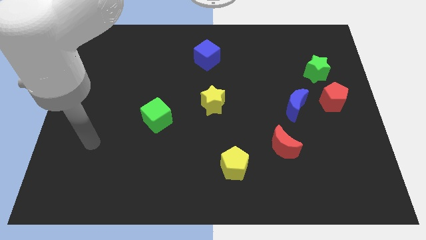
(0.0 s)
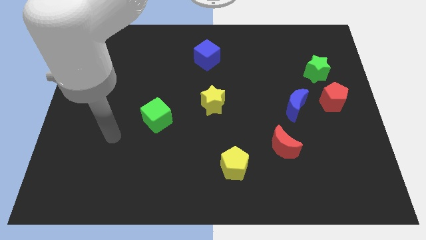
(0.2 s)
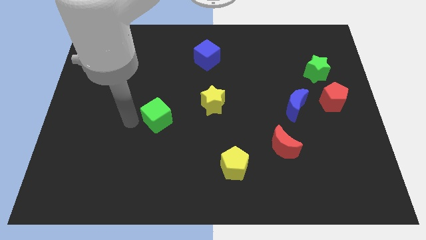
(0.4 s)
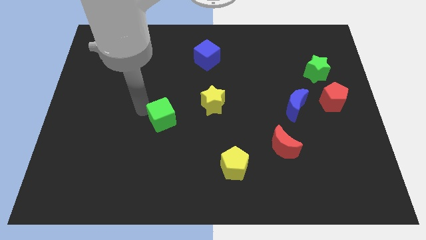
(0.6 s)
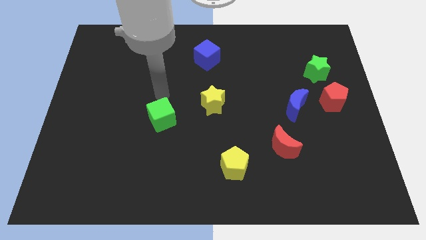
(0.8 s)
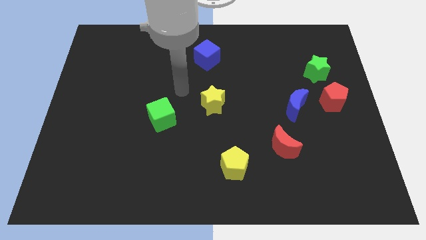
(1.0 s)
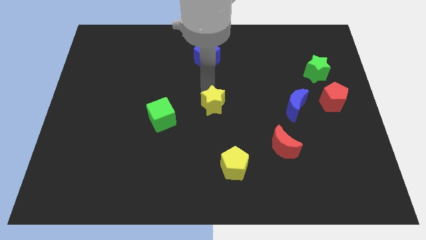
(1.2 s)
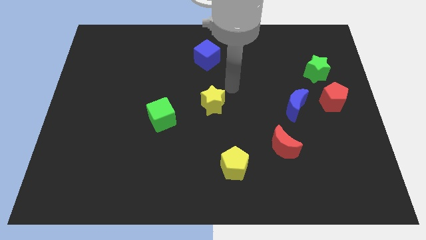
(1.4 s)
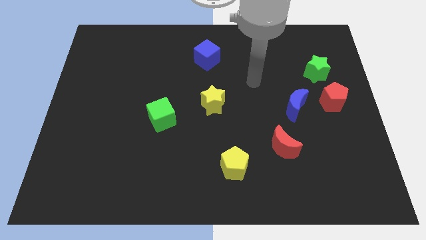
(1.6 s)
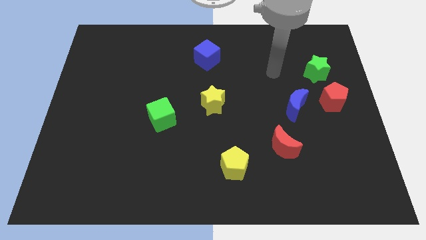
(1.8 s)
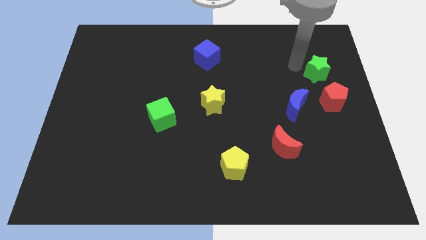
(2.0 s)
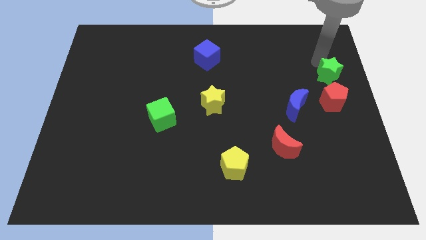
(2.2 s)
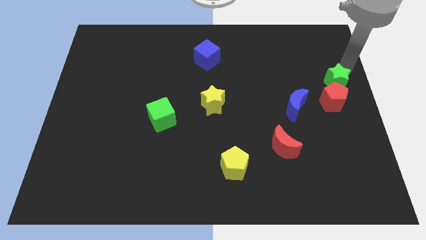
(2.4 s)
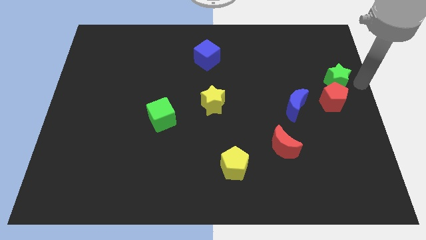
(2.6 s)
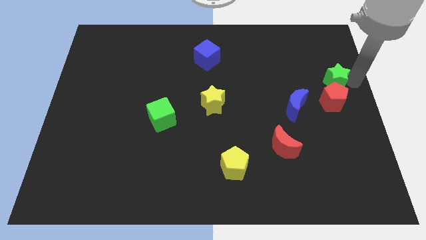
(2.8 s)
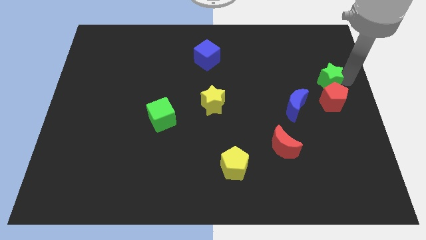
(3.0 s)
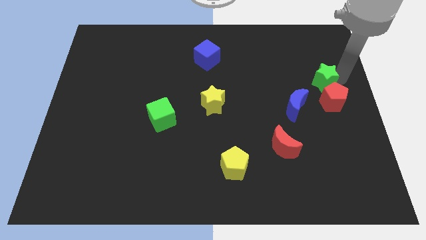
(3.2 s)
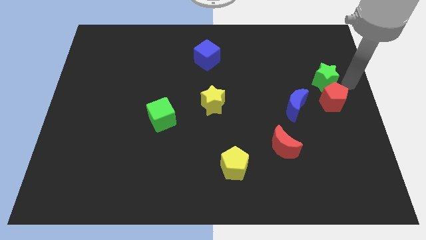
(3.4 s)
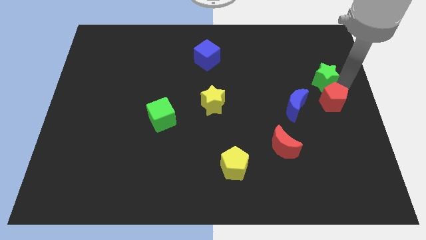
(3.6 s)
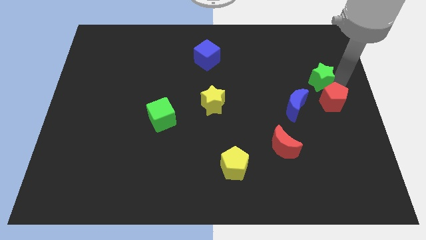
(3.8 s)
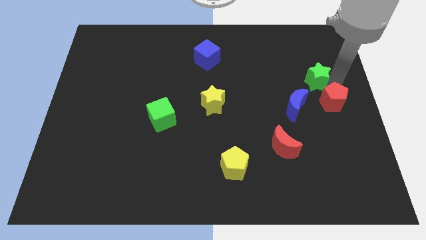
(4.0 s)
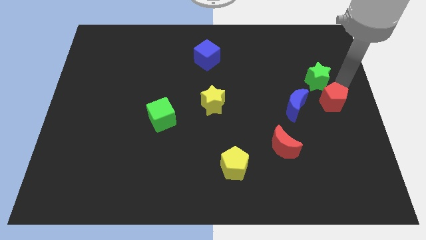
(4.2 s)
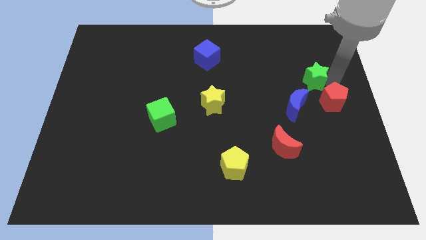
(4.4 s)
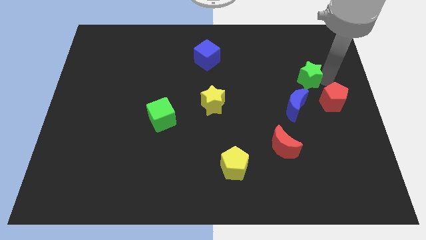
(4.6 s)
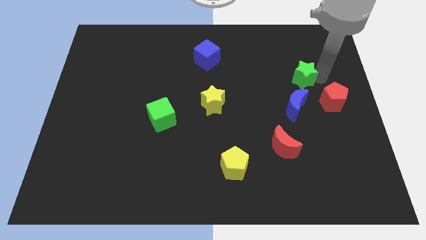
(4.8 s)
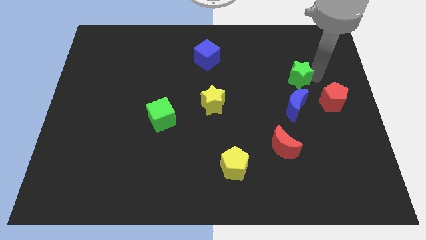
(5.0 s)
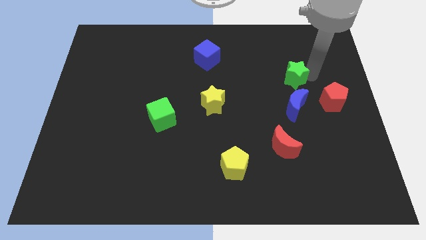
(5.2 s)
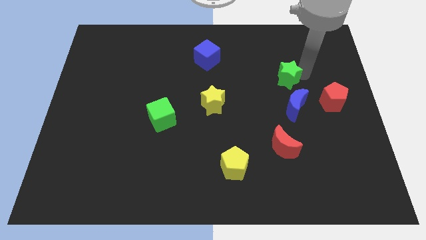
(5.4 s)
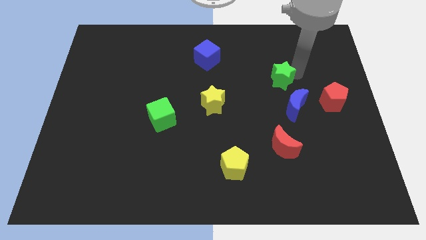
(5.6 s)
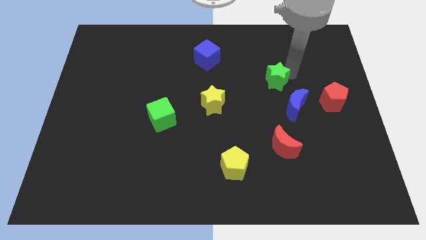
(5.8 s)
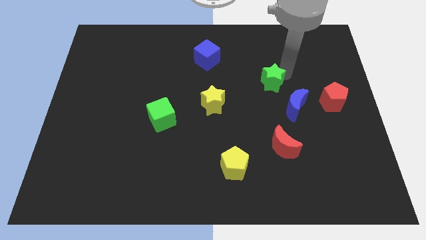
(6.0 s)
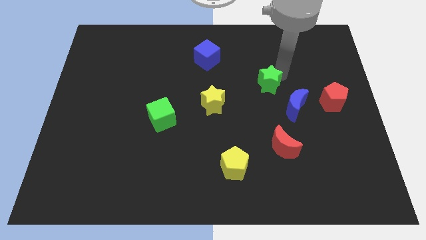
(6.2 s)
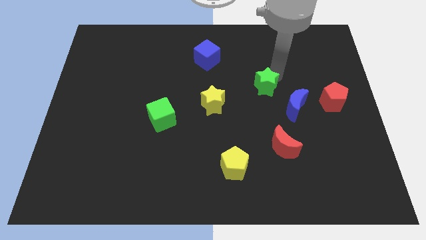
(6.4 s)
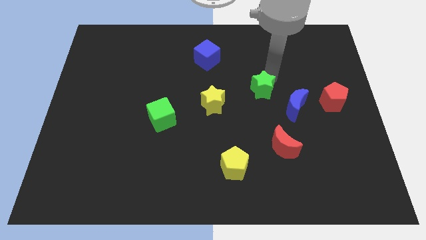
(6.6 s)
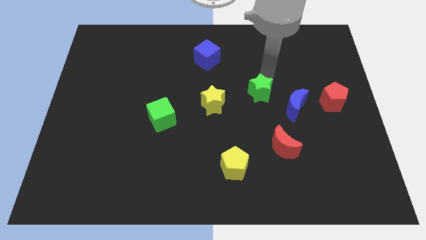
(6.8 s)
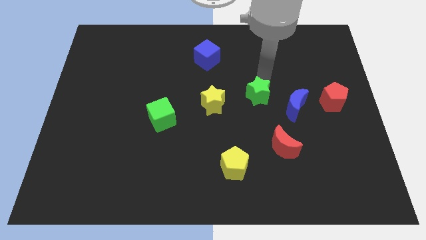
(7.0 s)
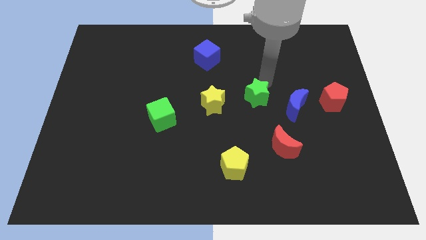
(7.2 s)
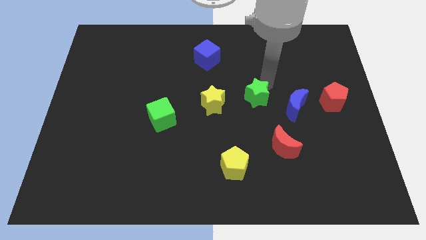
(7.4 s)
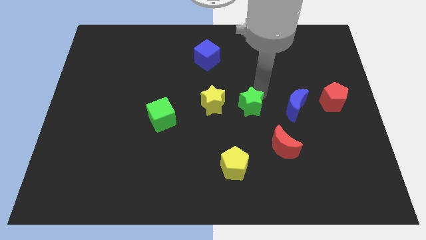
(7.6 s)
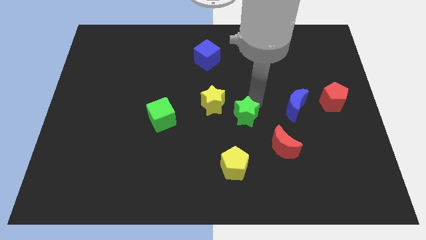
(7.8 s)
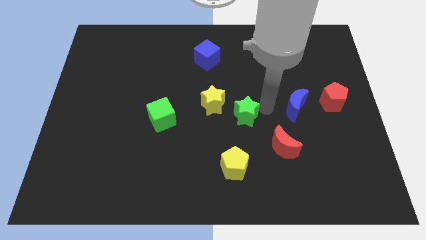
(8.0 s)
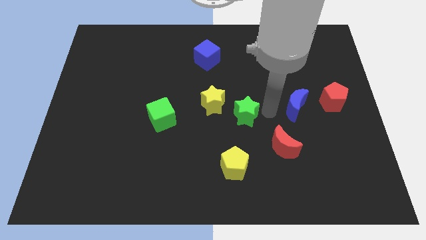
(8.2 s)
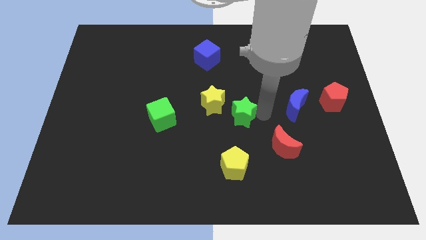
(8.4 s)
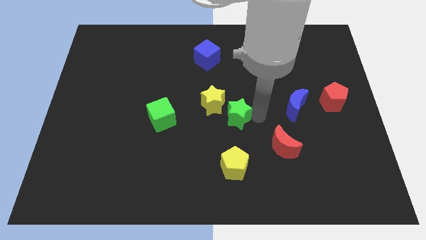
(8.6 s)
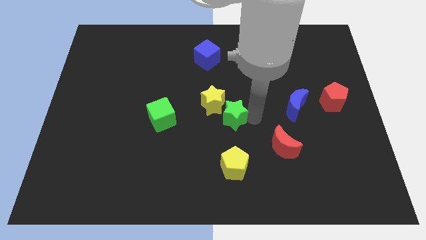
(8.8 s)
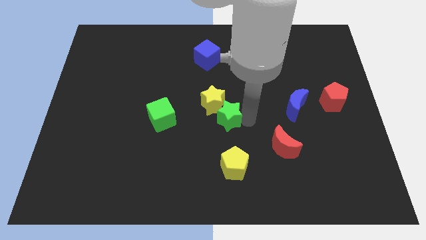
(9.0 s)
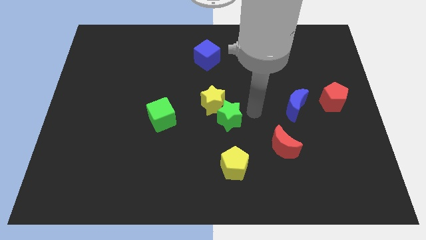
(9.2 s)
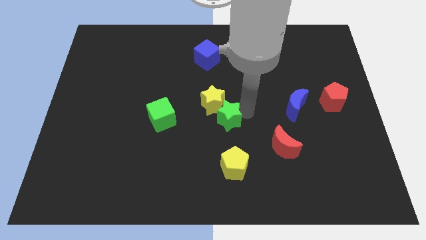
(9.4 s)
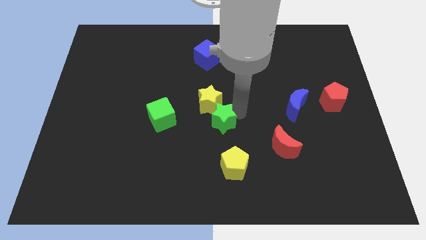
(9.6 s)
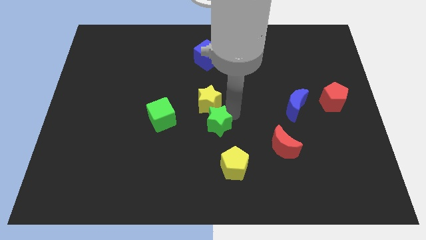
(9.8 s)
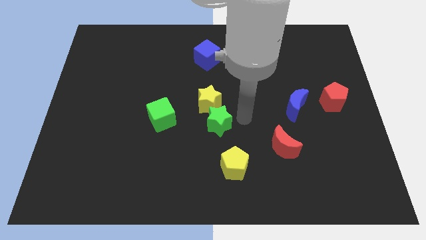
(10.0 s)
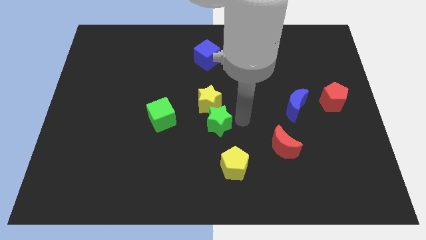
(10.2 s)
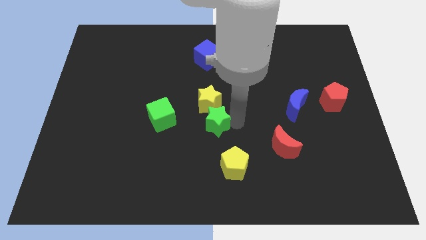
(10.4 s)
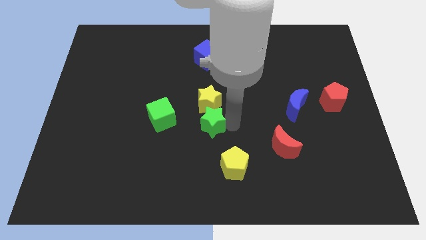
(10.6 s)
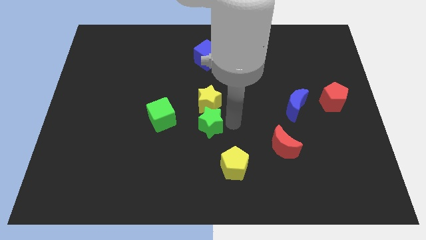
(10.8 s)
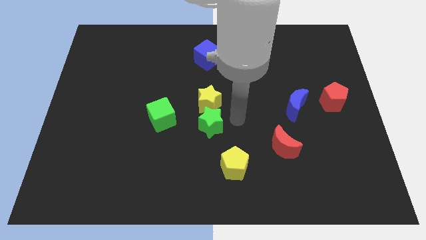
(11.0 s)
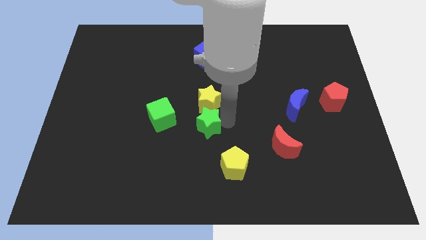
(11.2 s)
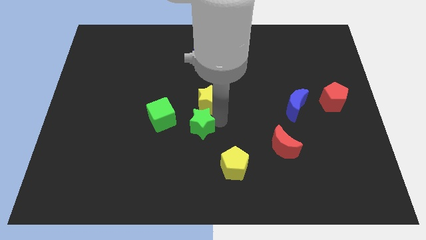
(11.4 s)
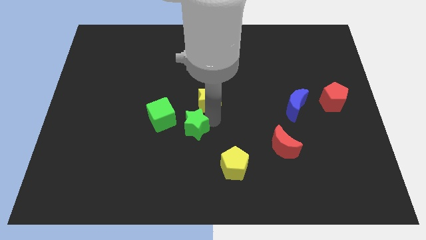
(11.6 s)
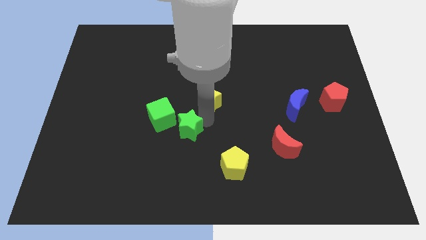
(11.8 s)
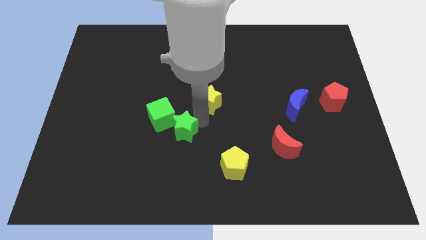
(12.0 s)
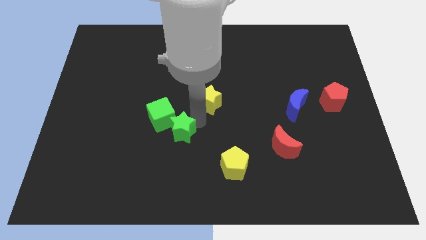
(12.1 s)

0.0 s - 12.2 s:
move the green star to the bottom side of the green cube
